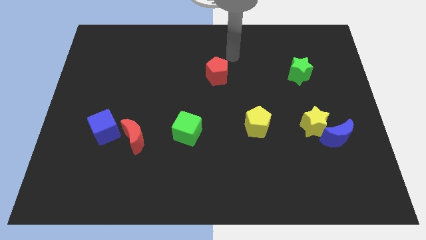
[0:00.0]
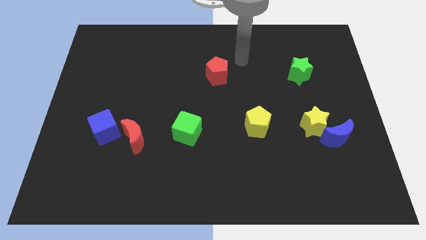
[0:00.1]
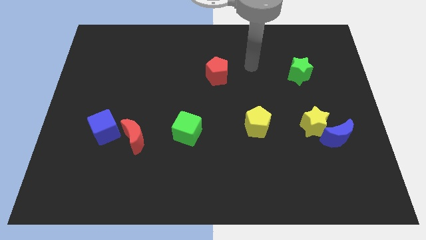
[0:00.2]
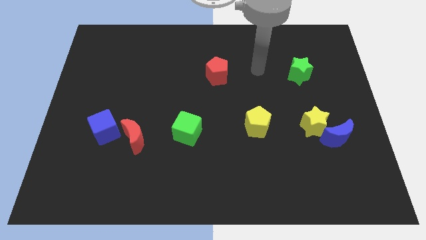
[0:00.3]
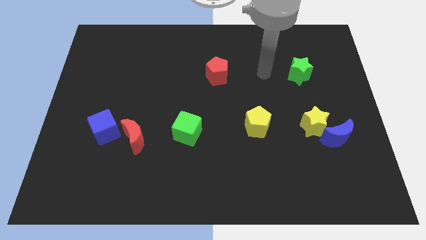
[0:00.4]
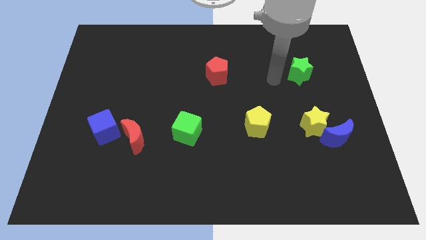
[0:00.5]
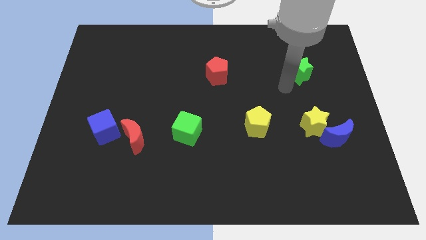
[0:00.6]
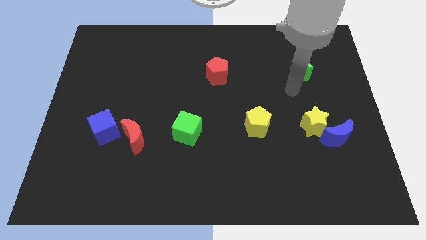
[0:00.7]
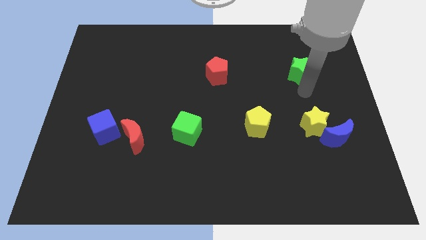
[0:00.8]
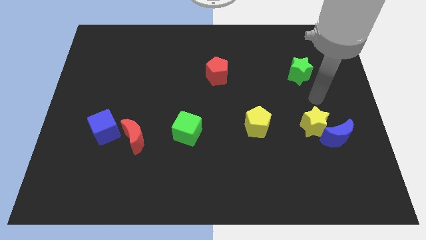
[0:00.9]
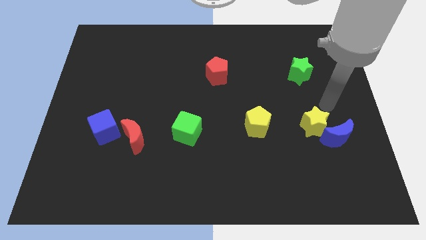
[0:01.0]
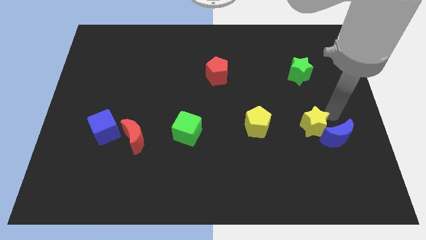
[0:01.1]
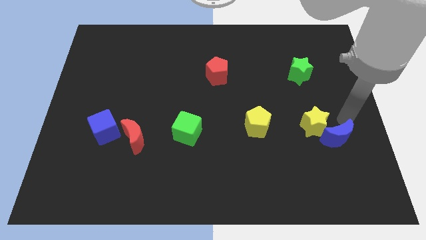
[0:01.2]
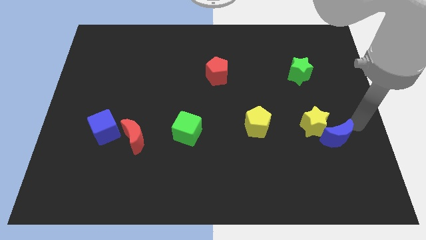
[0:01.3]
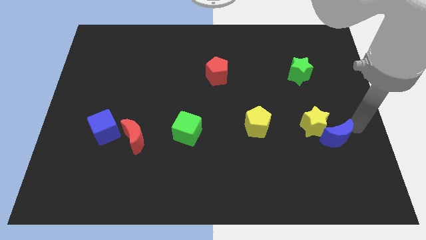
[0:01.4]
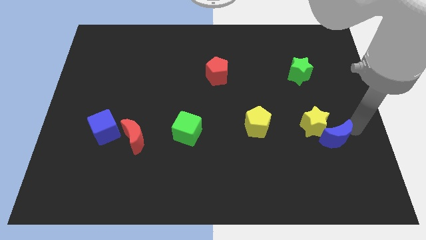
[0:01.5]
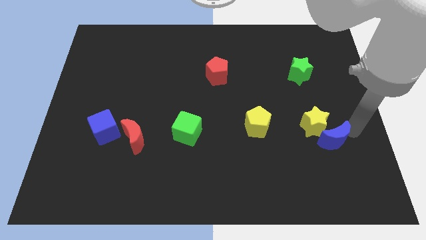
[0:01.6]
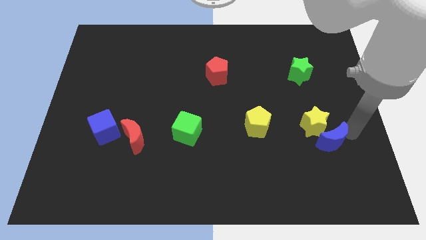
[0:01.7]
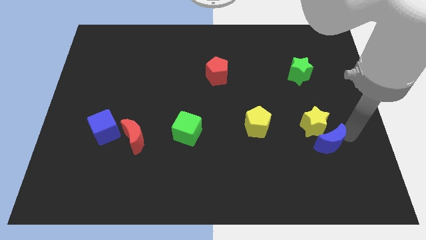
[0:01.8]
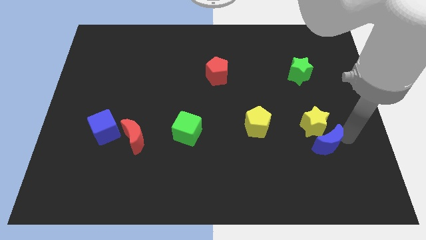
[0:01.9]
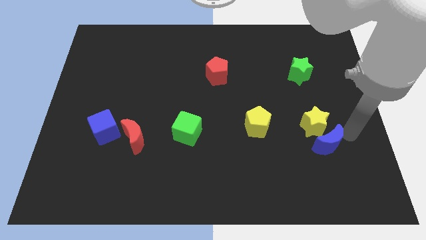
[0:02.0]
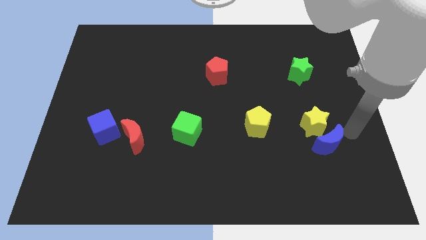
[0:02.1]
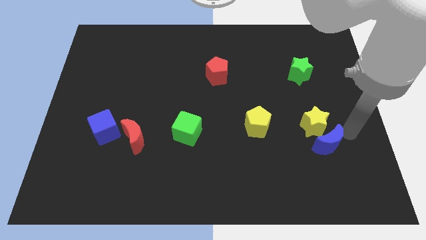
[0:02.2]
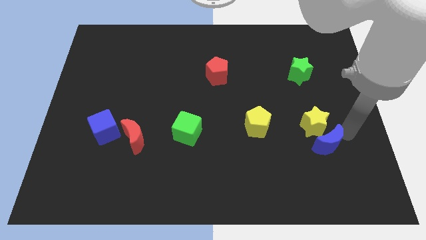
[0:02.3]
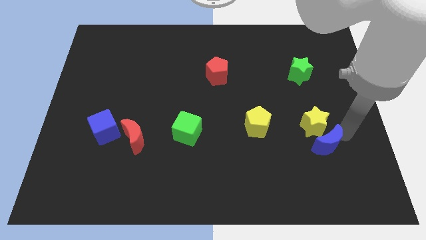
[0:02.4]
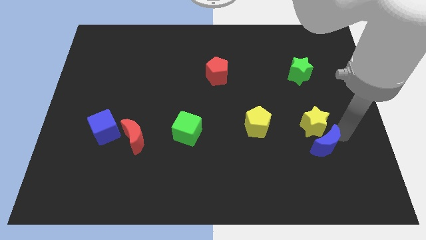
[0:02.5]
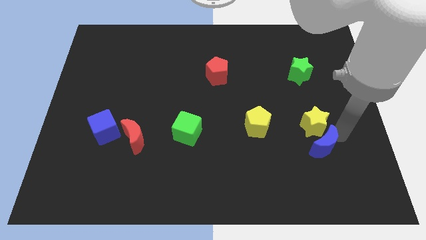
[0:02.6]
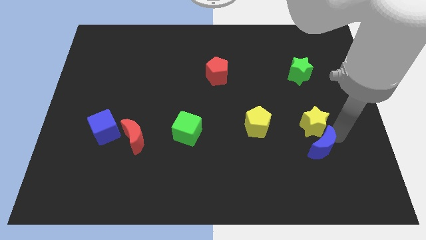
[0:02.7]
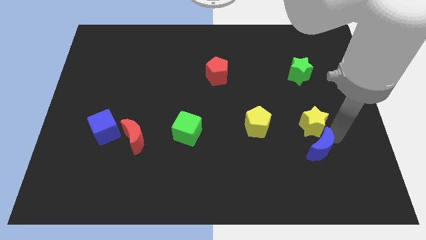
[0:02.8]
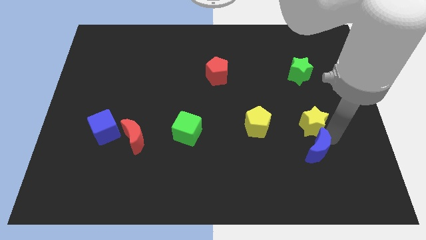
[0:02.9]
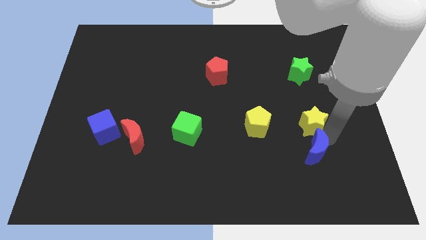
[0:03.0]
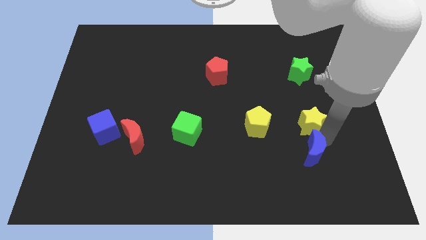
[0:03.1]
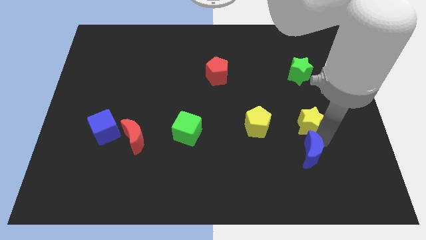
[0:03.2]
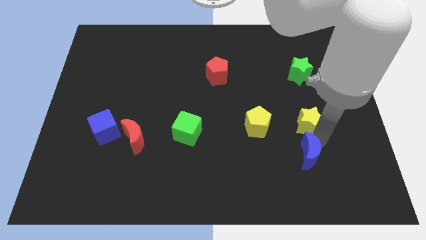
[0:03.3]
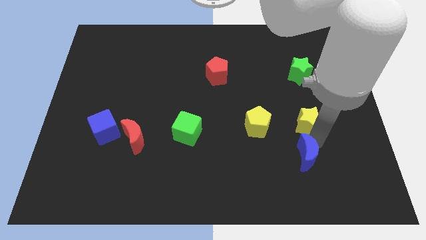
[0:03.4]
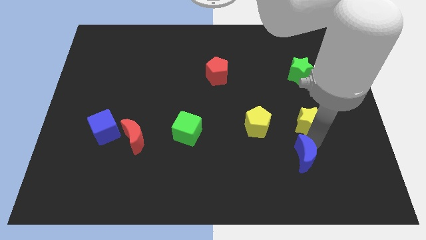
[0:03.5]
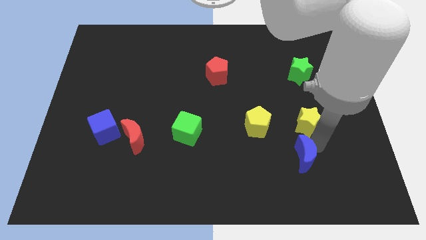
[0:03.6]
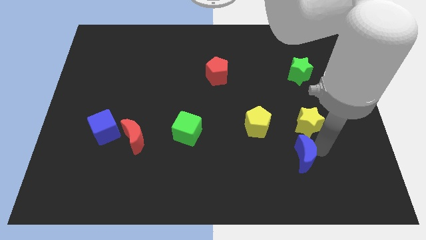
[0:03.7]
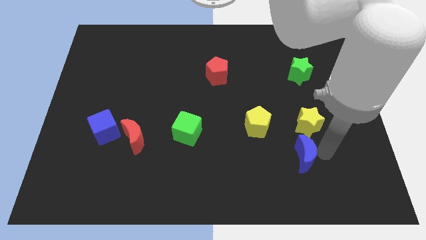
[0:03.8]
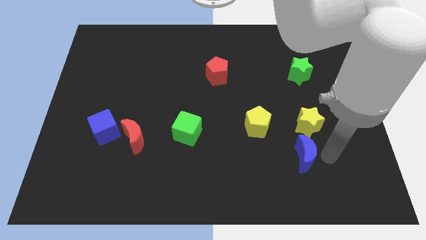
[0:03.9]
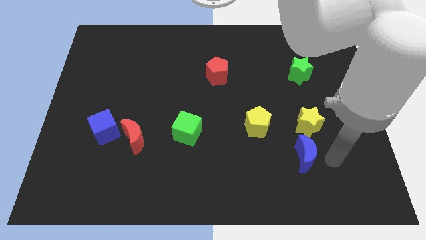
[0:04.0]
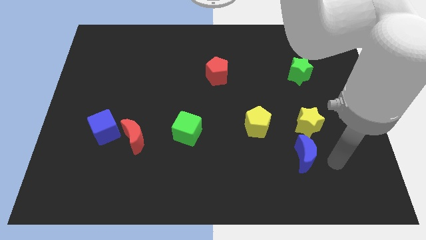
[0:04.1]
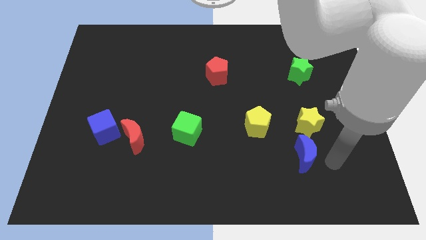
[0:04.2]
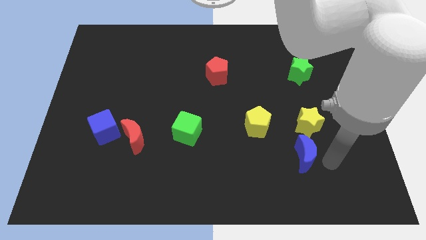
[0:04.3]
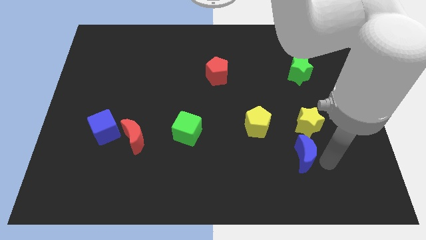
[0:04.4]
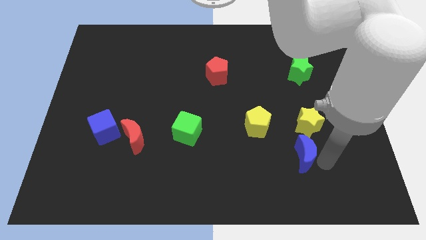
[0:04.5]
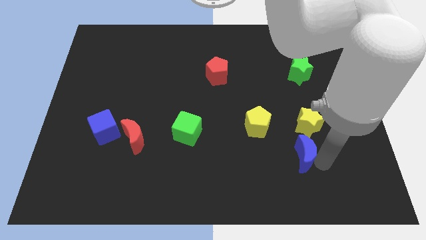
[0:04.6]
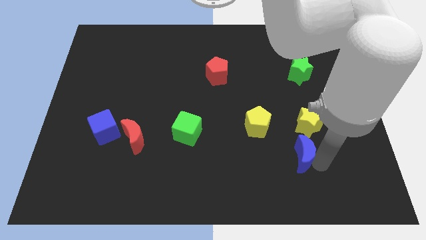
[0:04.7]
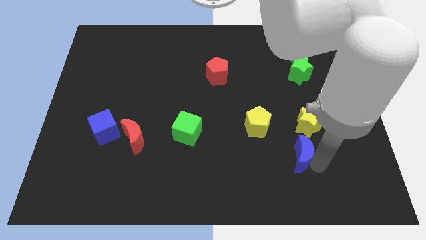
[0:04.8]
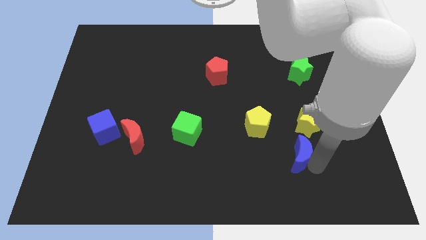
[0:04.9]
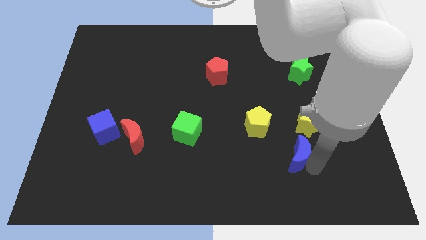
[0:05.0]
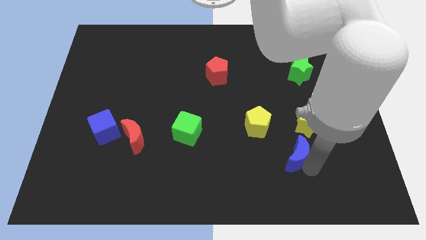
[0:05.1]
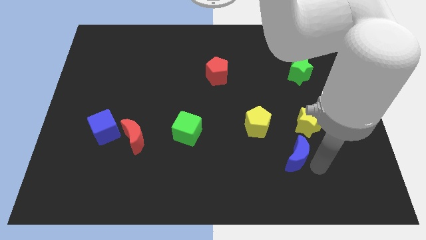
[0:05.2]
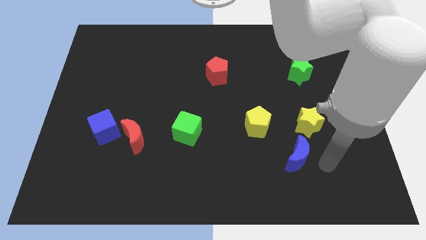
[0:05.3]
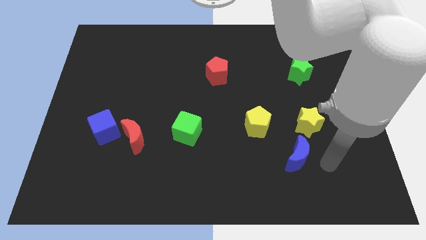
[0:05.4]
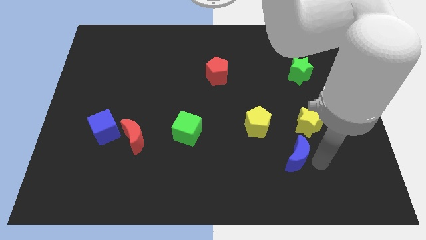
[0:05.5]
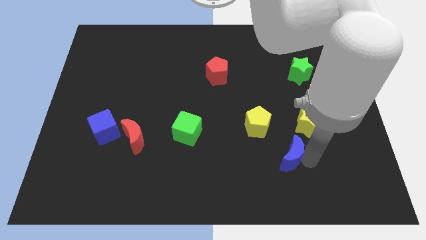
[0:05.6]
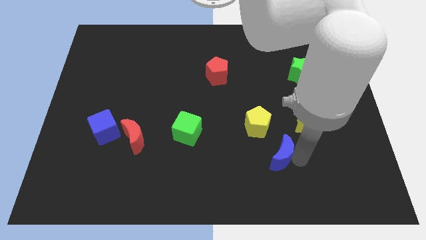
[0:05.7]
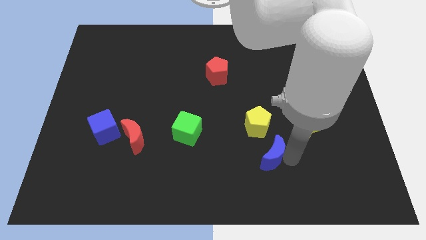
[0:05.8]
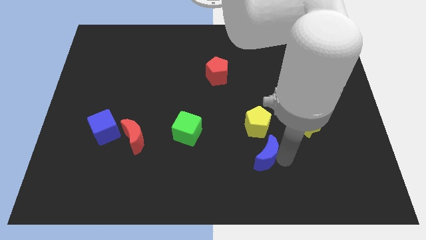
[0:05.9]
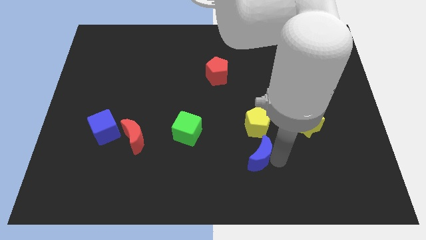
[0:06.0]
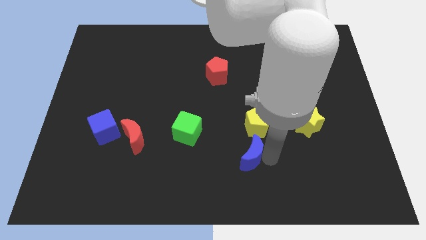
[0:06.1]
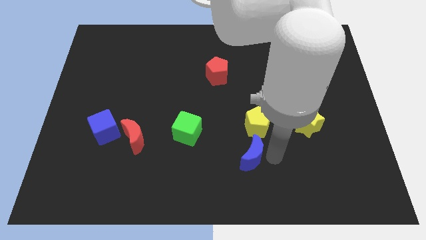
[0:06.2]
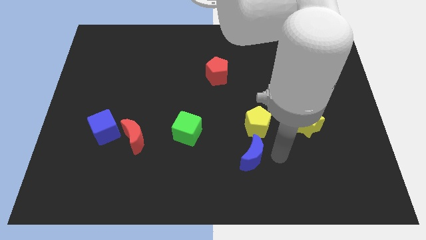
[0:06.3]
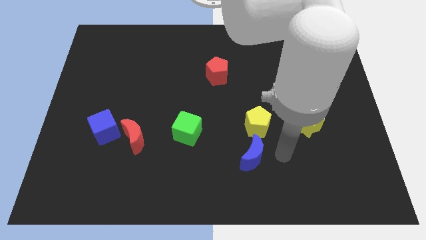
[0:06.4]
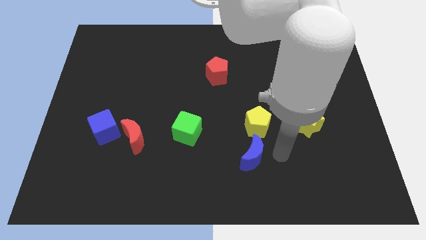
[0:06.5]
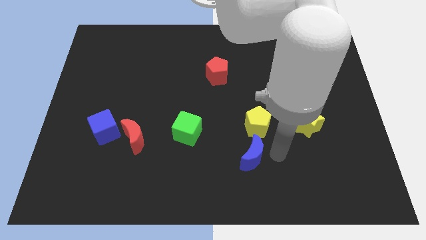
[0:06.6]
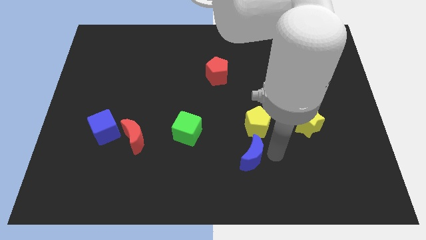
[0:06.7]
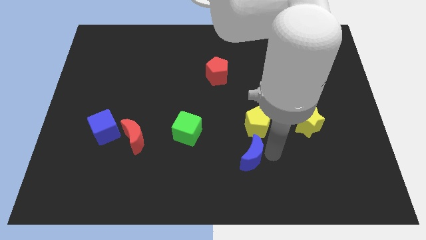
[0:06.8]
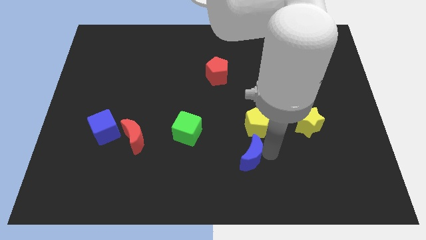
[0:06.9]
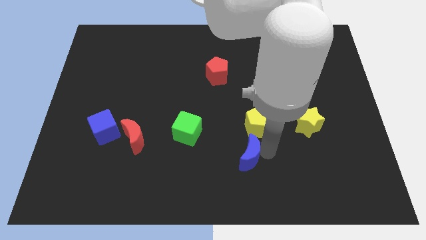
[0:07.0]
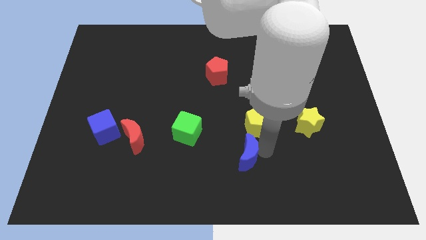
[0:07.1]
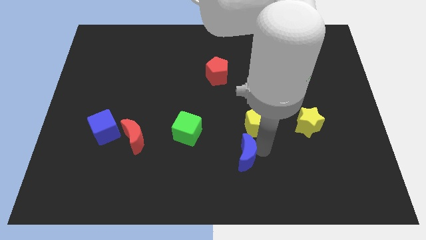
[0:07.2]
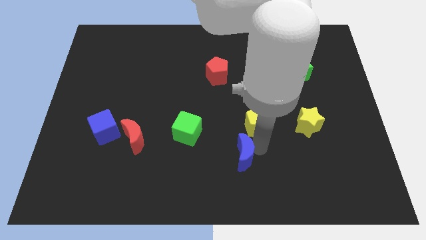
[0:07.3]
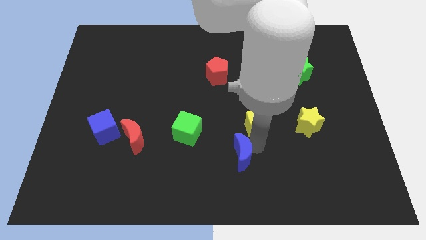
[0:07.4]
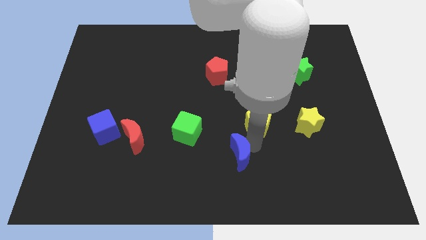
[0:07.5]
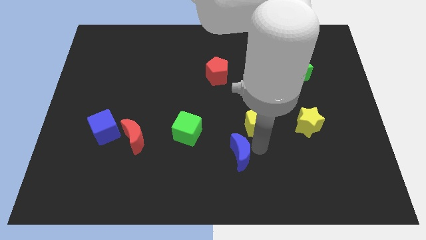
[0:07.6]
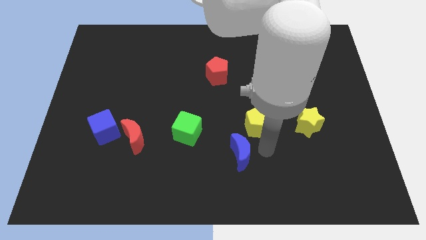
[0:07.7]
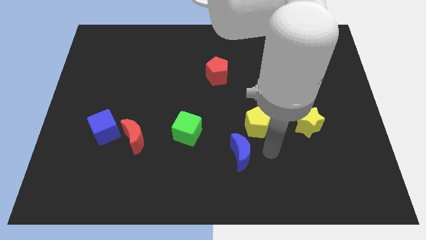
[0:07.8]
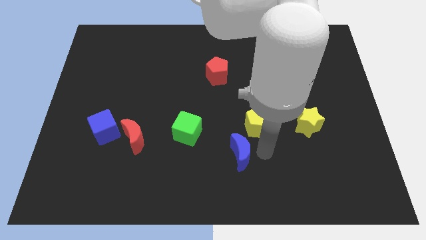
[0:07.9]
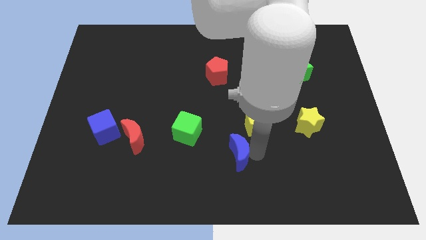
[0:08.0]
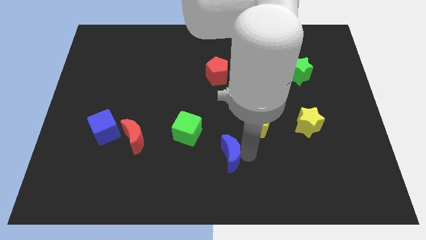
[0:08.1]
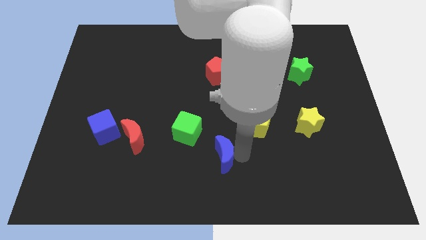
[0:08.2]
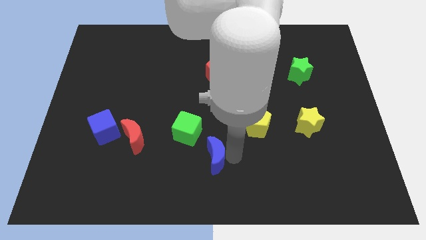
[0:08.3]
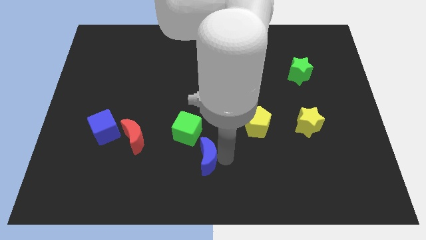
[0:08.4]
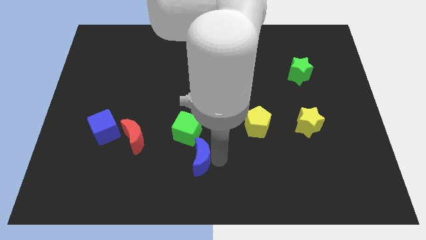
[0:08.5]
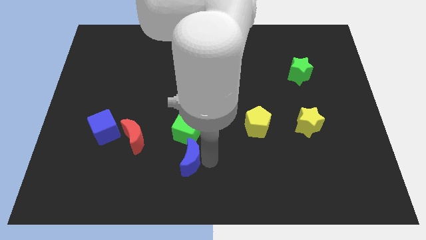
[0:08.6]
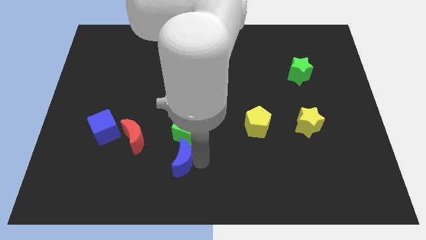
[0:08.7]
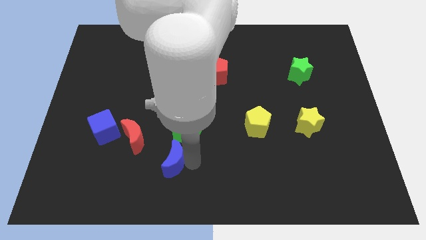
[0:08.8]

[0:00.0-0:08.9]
slide the blue moon to the bottom right side of the red moon
